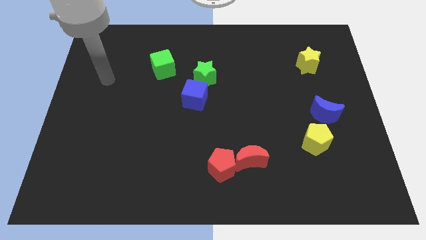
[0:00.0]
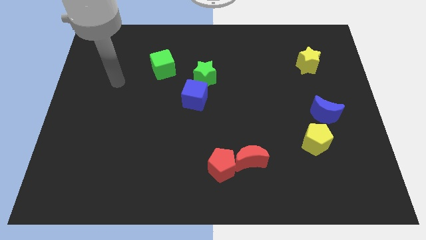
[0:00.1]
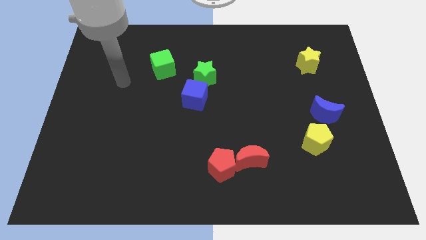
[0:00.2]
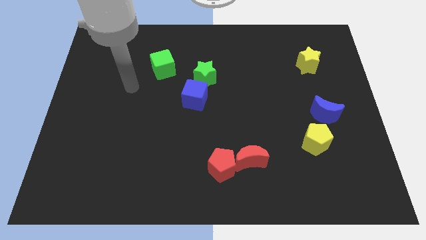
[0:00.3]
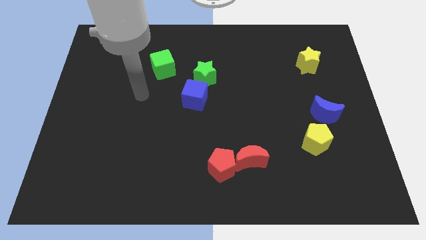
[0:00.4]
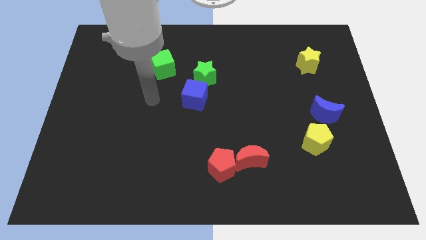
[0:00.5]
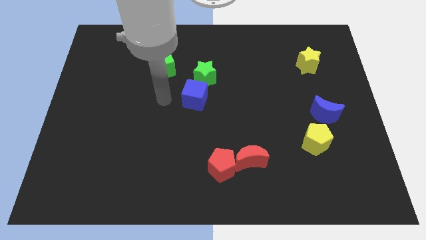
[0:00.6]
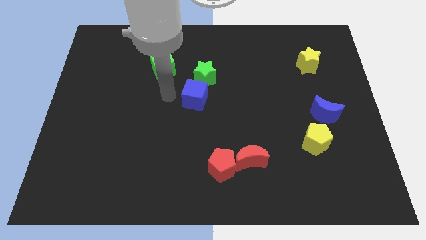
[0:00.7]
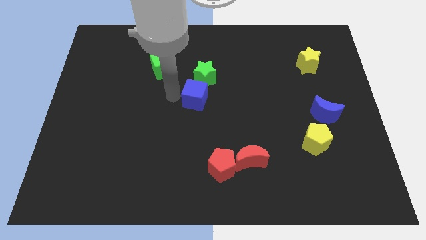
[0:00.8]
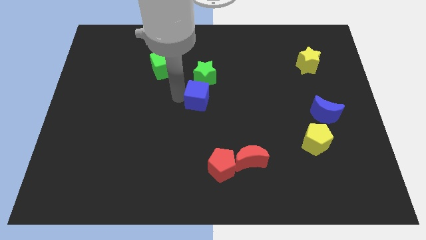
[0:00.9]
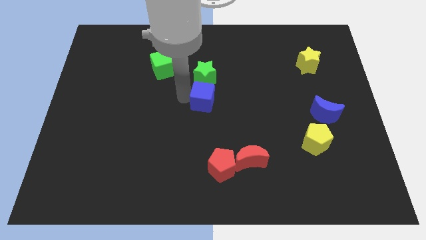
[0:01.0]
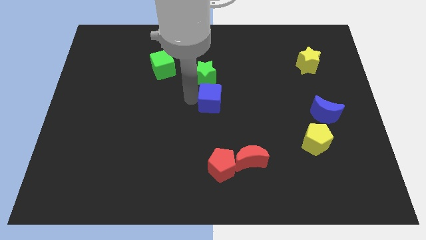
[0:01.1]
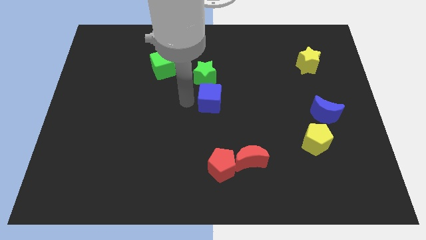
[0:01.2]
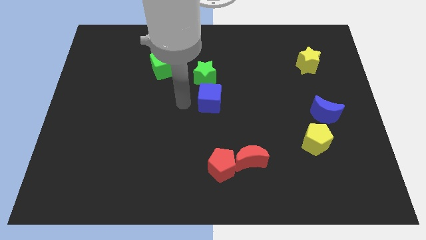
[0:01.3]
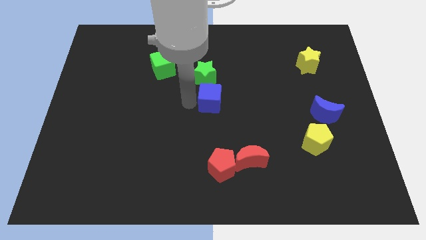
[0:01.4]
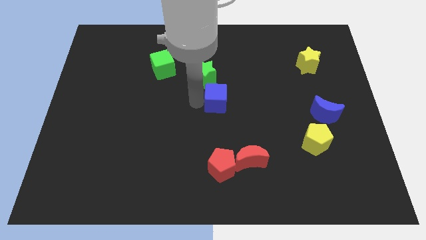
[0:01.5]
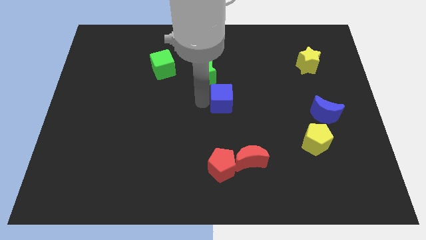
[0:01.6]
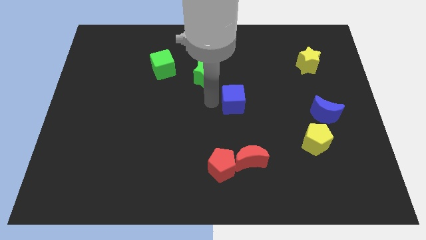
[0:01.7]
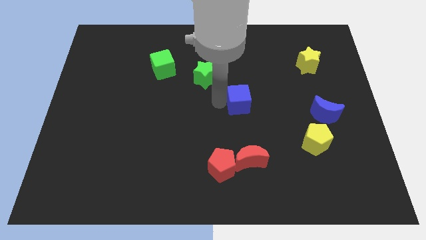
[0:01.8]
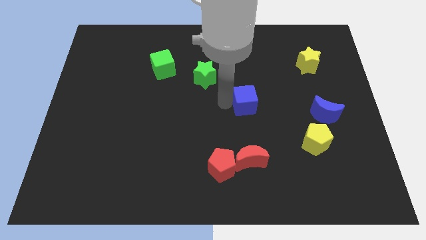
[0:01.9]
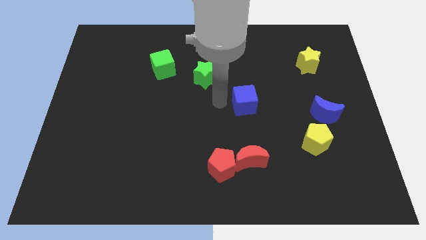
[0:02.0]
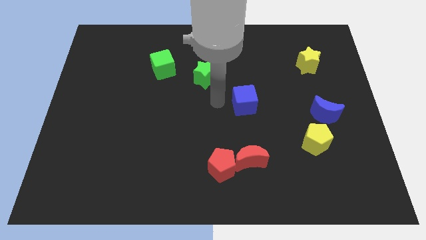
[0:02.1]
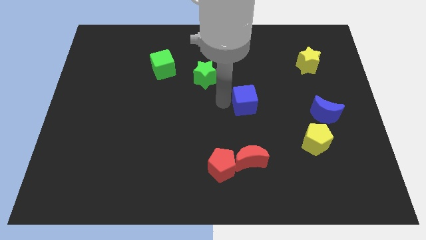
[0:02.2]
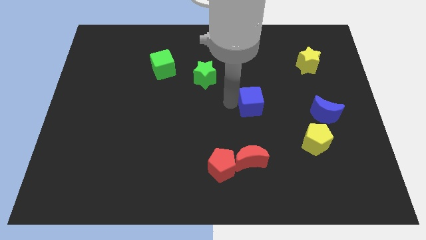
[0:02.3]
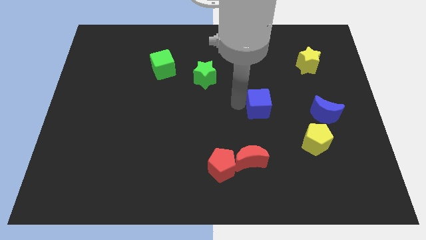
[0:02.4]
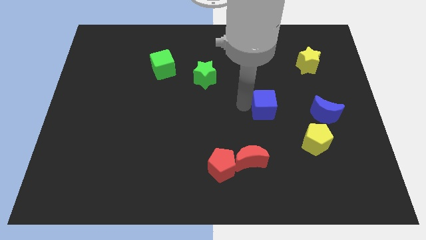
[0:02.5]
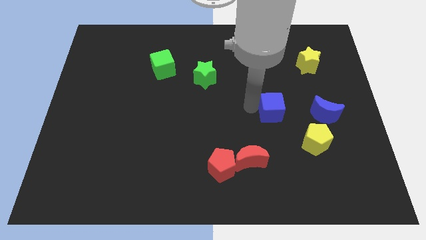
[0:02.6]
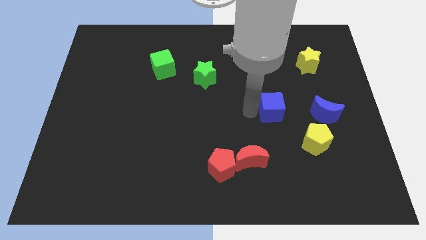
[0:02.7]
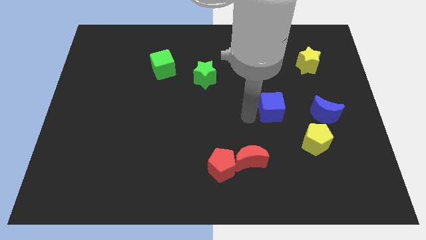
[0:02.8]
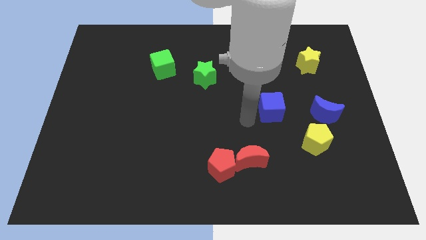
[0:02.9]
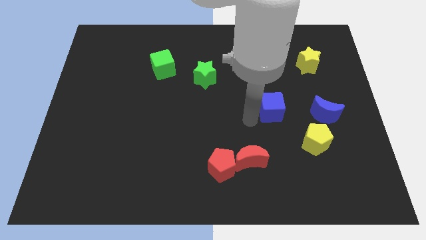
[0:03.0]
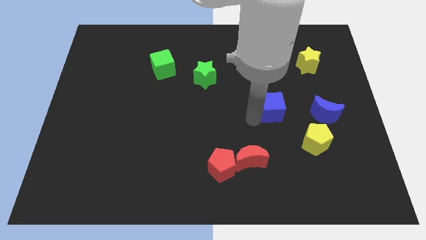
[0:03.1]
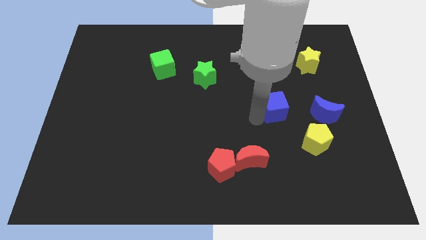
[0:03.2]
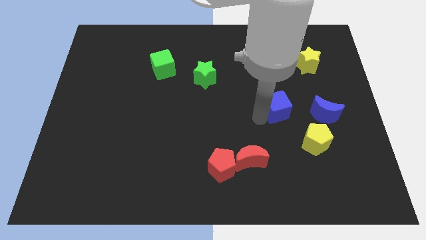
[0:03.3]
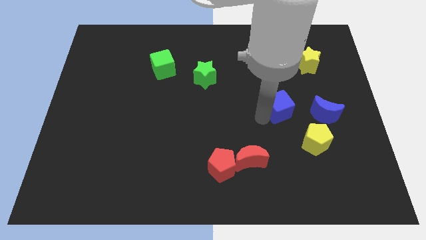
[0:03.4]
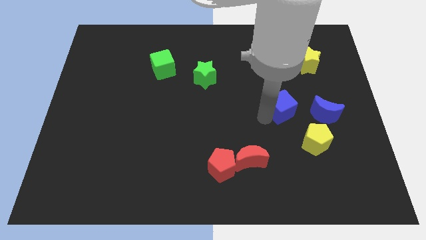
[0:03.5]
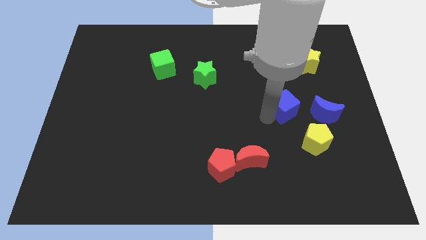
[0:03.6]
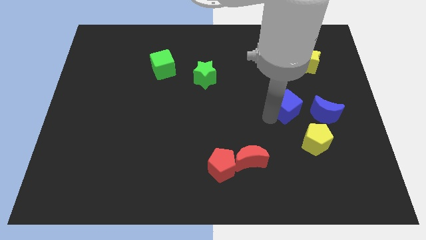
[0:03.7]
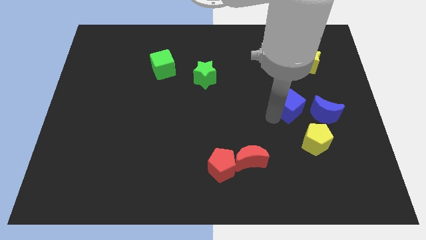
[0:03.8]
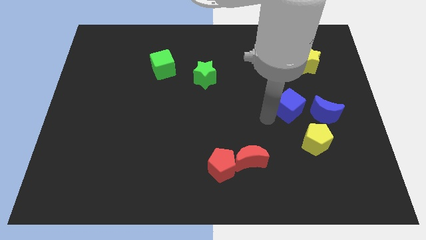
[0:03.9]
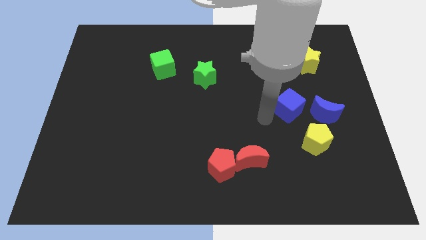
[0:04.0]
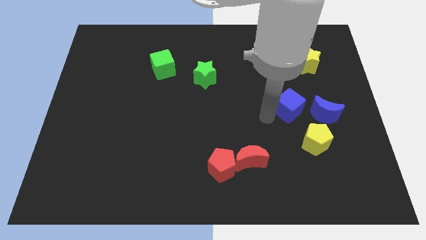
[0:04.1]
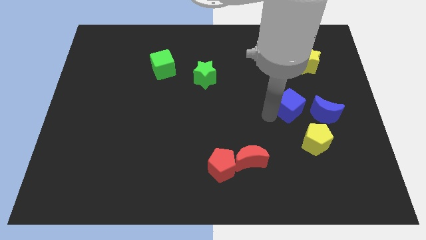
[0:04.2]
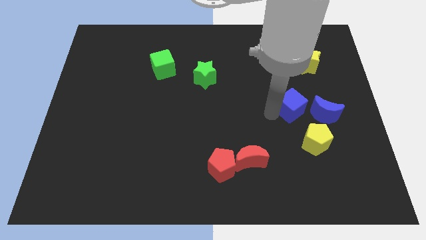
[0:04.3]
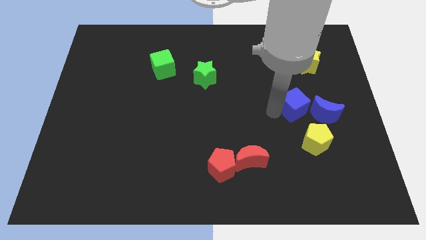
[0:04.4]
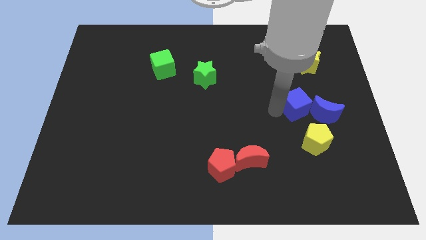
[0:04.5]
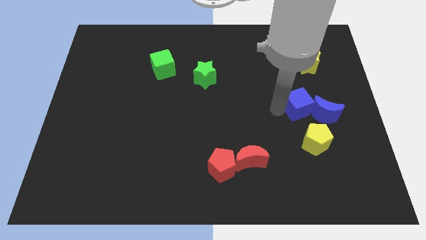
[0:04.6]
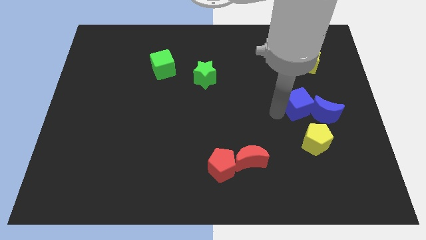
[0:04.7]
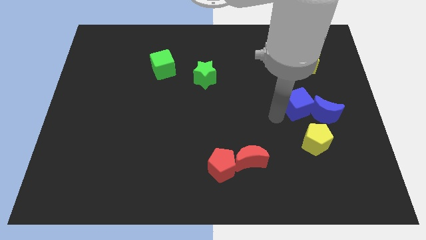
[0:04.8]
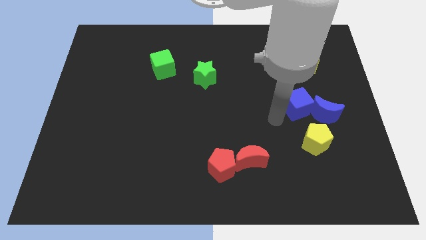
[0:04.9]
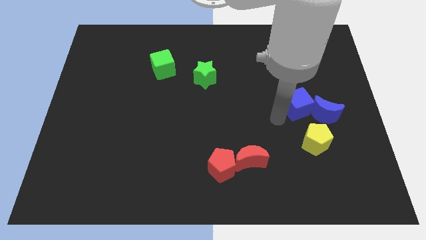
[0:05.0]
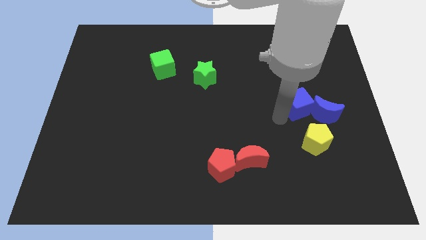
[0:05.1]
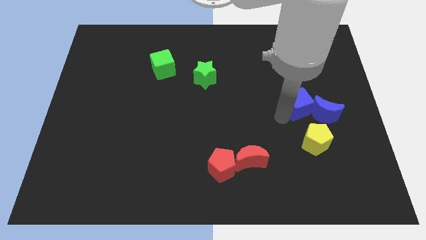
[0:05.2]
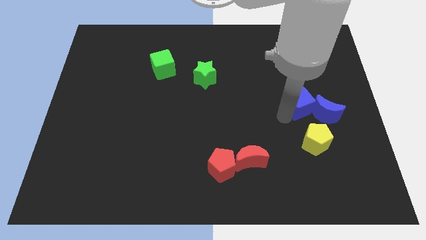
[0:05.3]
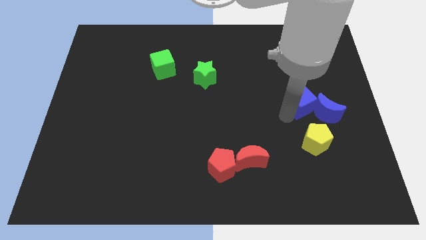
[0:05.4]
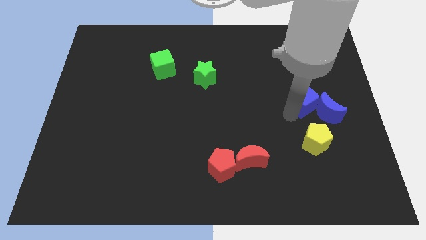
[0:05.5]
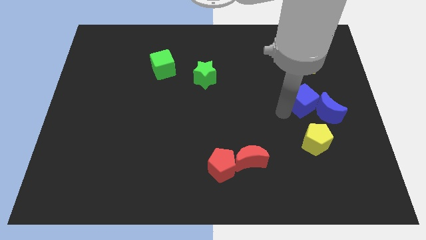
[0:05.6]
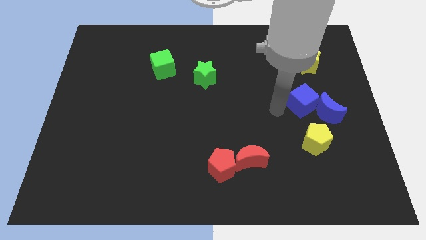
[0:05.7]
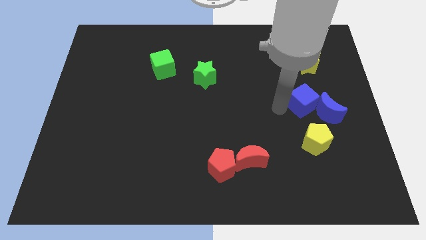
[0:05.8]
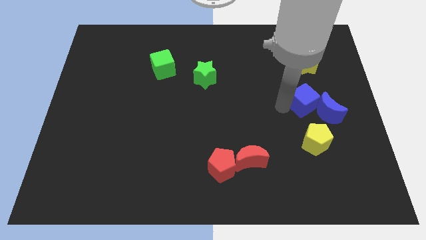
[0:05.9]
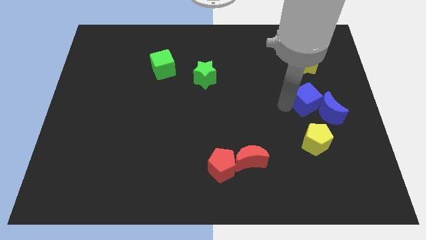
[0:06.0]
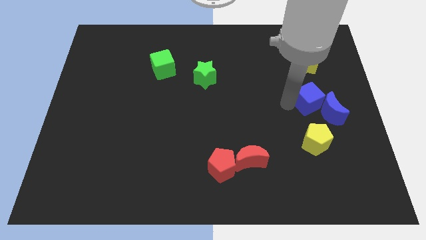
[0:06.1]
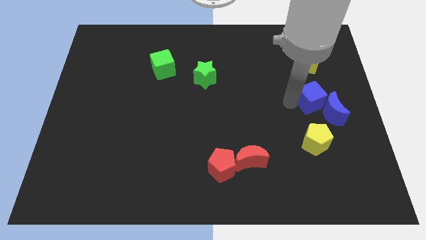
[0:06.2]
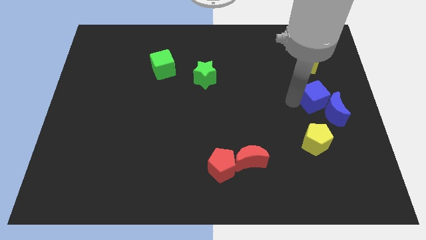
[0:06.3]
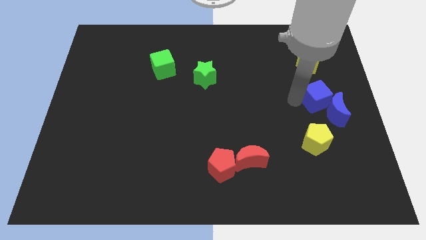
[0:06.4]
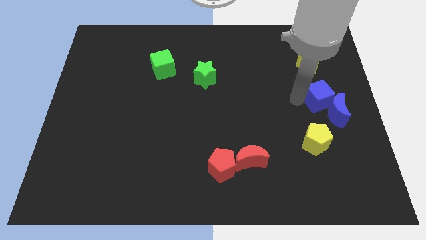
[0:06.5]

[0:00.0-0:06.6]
push the blue cube to the center right
